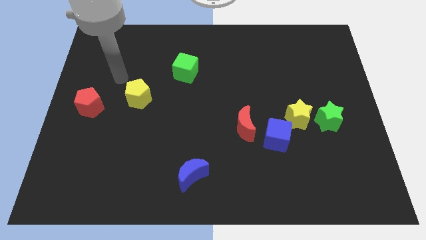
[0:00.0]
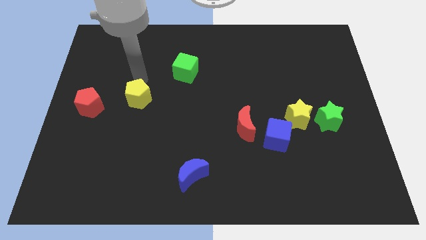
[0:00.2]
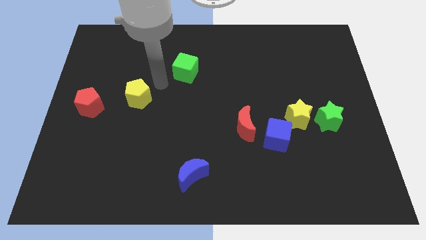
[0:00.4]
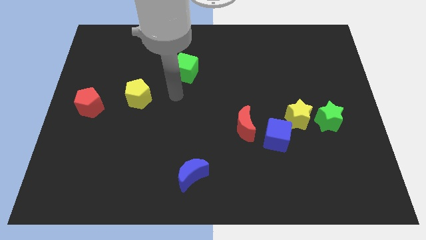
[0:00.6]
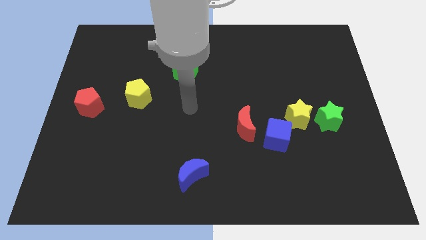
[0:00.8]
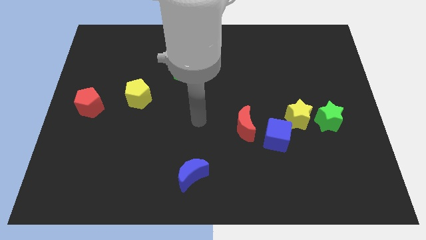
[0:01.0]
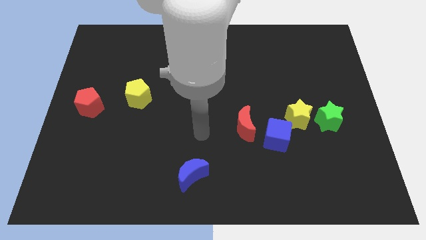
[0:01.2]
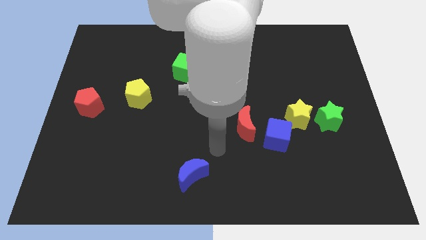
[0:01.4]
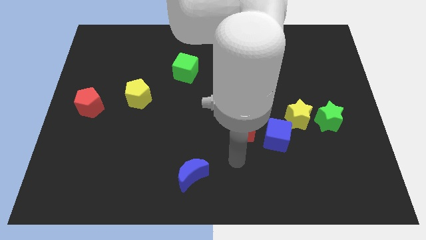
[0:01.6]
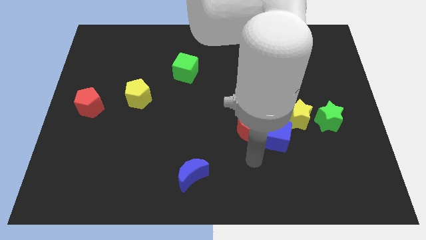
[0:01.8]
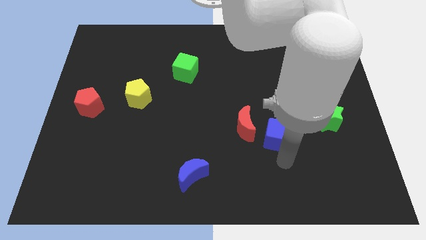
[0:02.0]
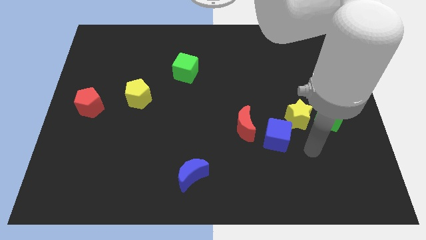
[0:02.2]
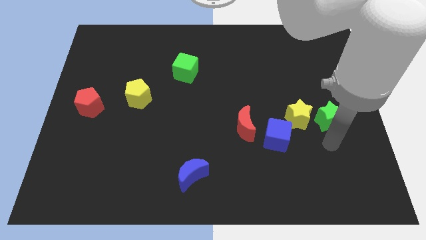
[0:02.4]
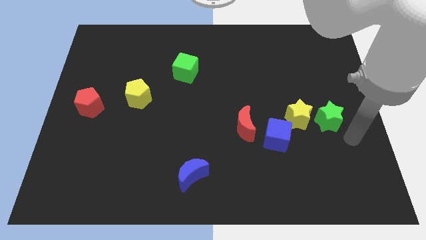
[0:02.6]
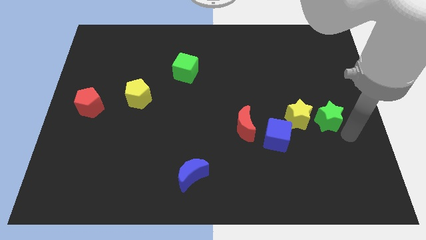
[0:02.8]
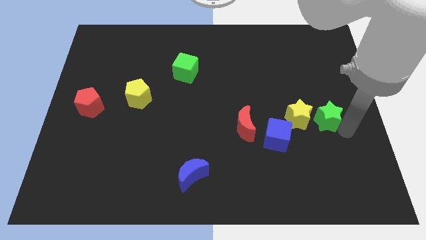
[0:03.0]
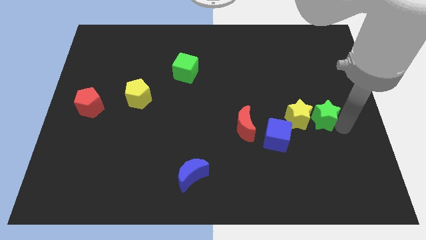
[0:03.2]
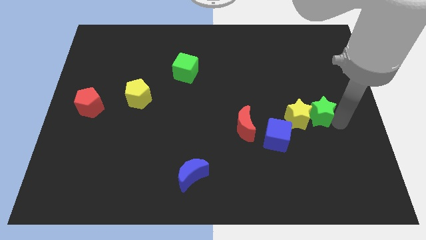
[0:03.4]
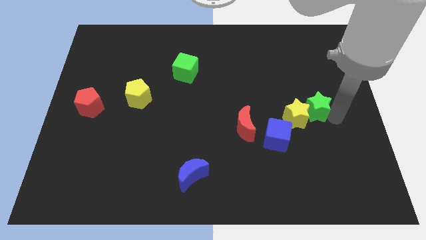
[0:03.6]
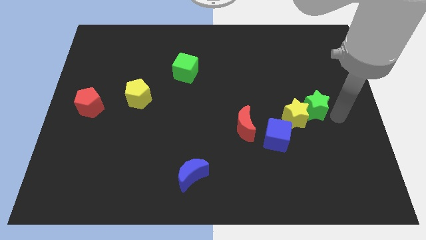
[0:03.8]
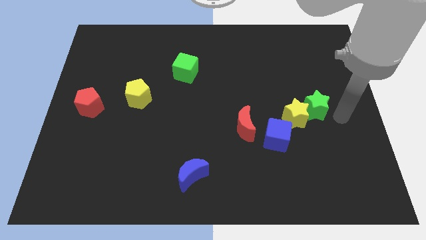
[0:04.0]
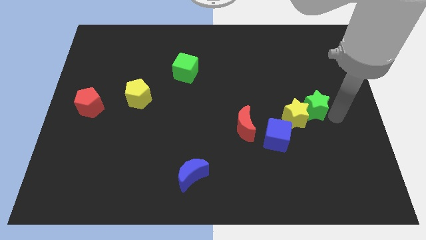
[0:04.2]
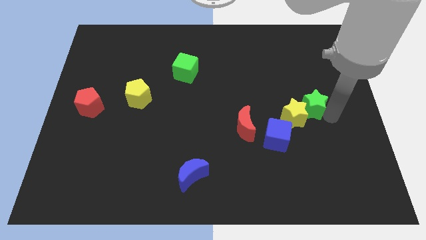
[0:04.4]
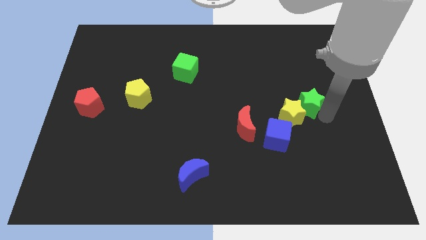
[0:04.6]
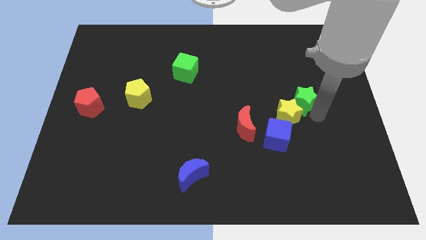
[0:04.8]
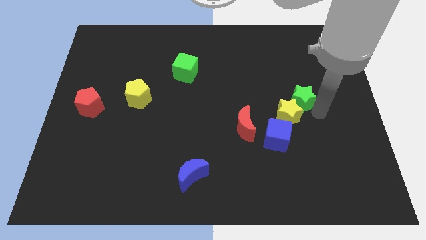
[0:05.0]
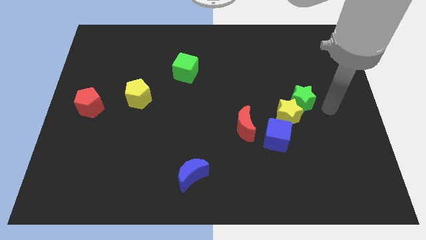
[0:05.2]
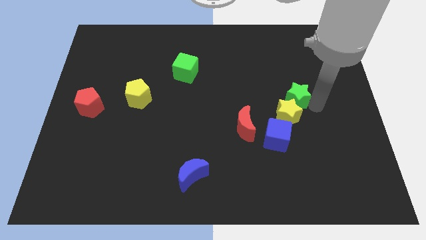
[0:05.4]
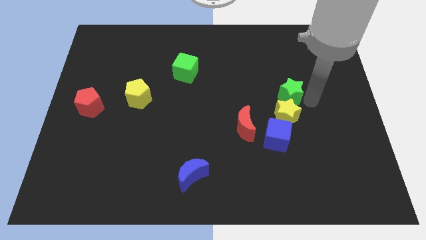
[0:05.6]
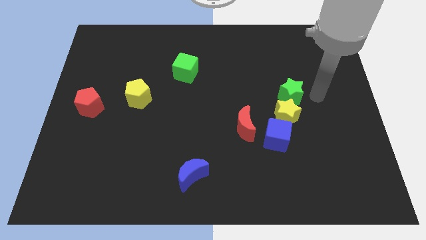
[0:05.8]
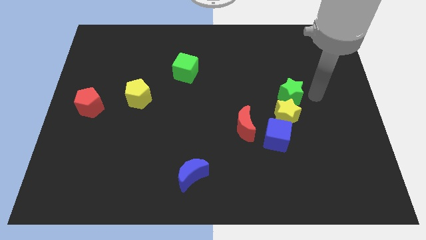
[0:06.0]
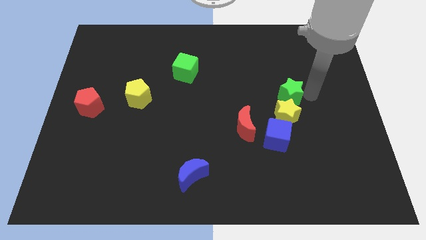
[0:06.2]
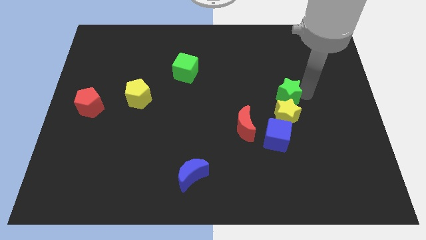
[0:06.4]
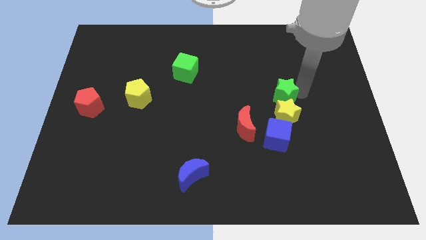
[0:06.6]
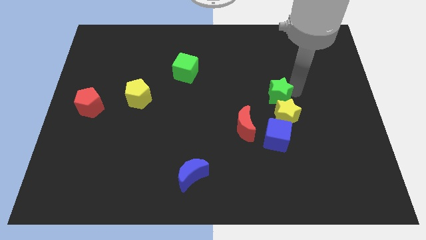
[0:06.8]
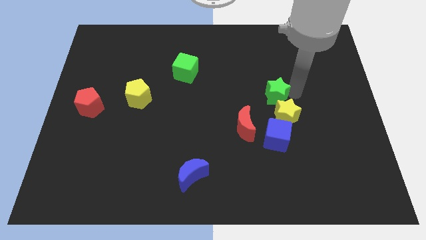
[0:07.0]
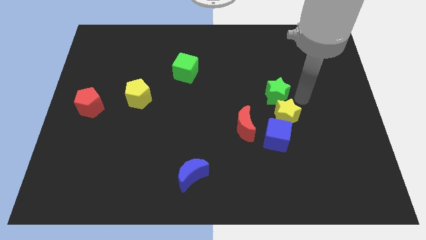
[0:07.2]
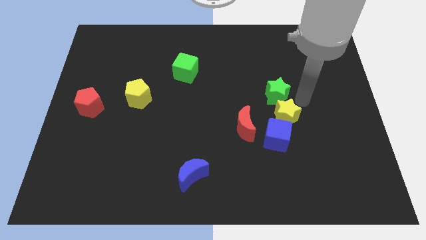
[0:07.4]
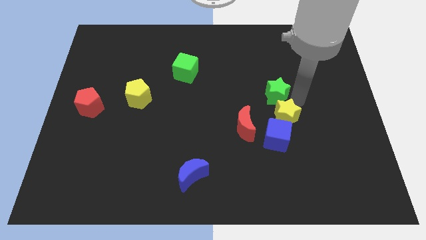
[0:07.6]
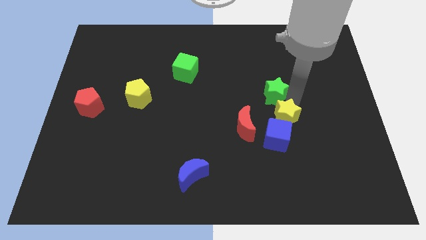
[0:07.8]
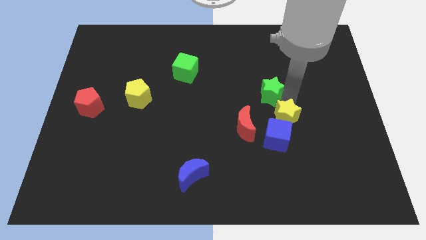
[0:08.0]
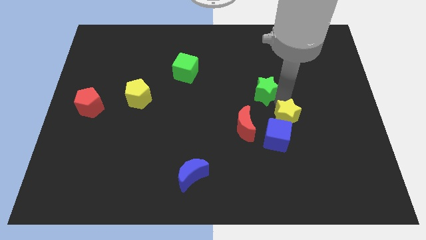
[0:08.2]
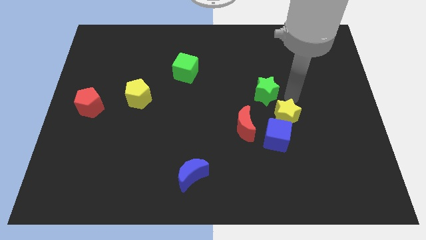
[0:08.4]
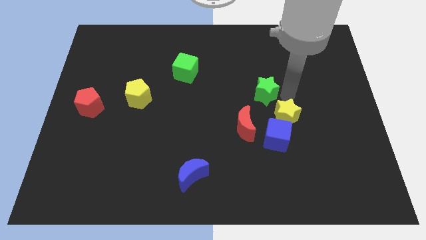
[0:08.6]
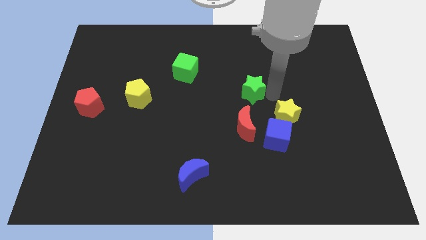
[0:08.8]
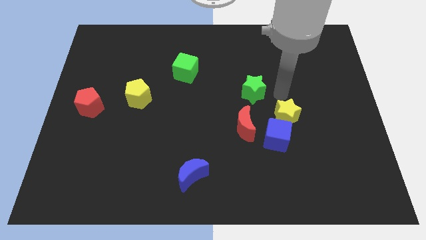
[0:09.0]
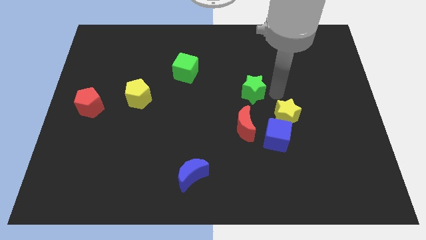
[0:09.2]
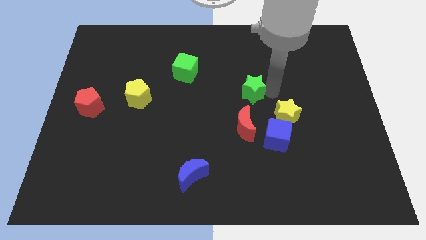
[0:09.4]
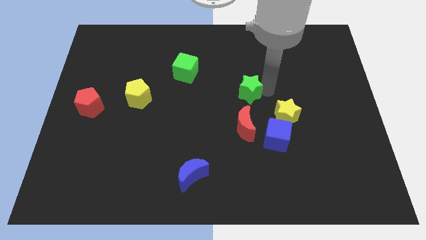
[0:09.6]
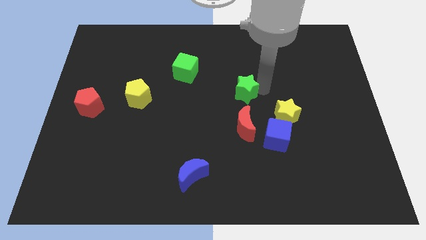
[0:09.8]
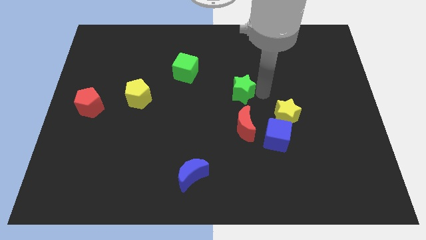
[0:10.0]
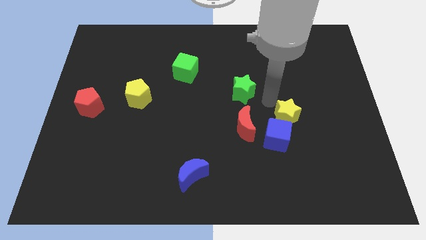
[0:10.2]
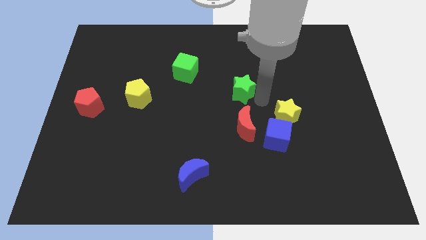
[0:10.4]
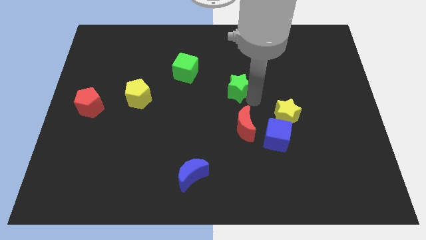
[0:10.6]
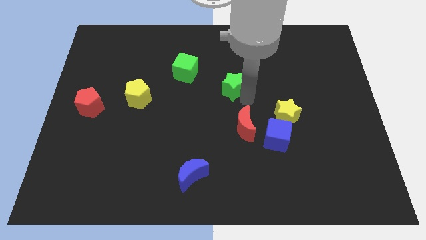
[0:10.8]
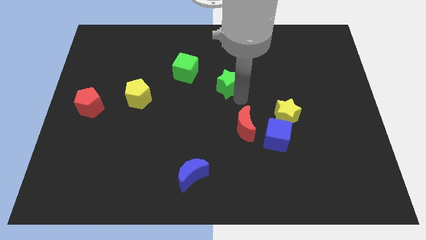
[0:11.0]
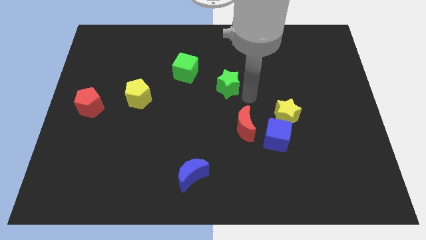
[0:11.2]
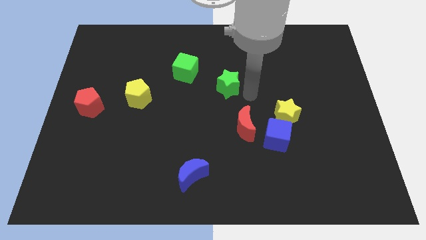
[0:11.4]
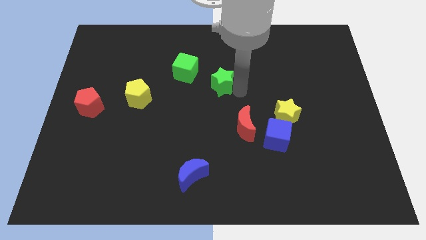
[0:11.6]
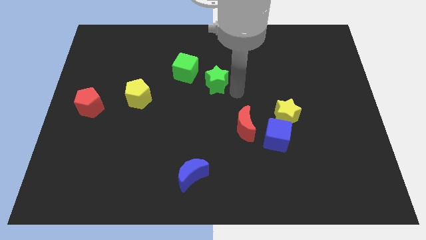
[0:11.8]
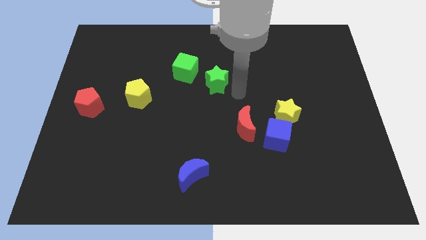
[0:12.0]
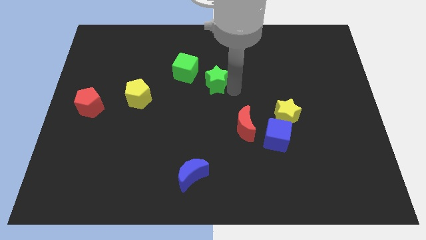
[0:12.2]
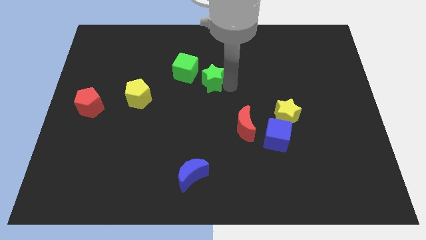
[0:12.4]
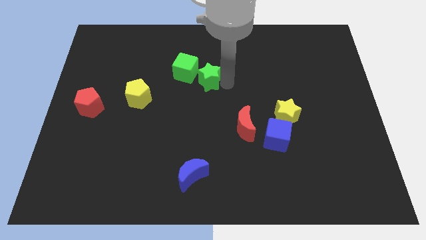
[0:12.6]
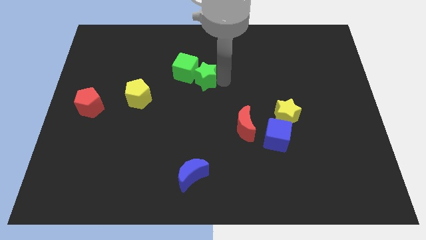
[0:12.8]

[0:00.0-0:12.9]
put the green star close to the green cube
